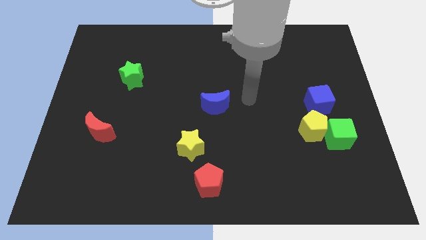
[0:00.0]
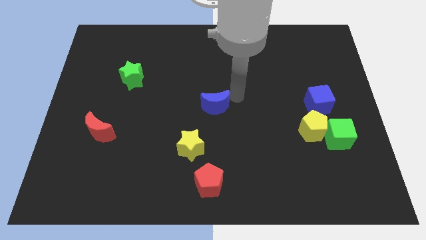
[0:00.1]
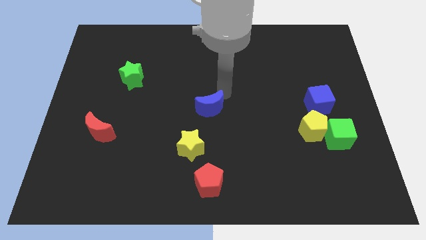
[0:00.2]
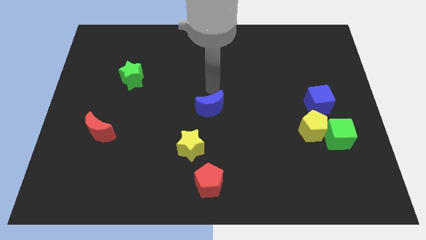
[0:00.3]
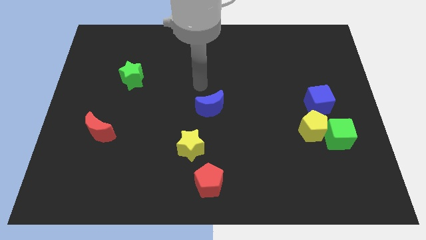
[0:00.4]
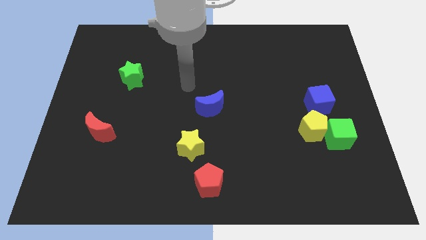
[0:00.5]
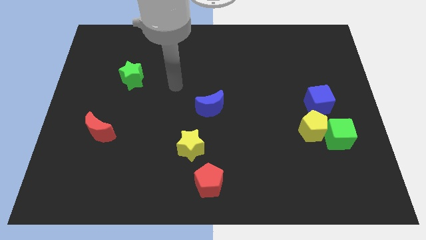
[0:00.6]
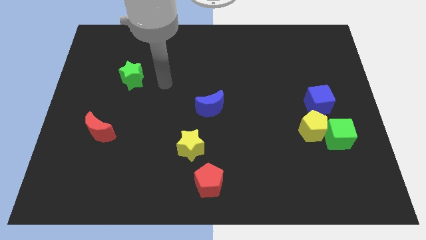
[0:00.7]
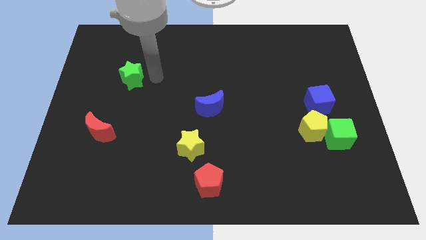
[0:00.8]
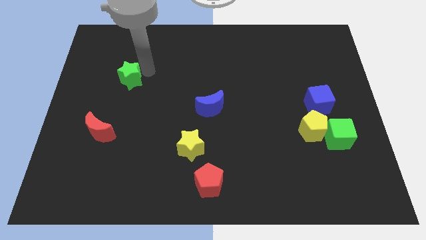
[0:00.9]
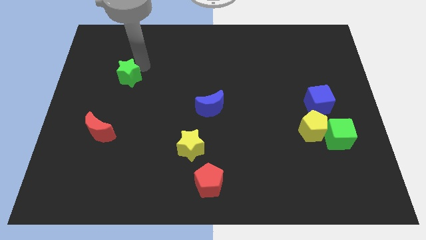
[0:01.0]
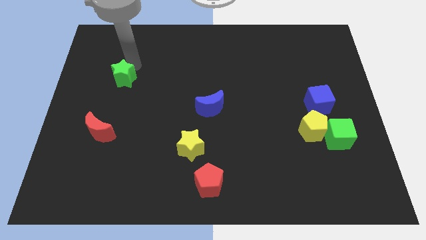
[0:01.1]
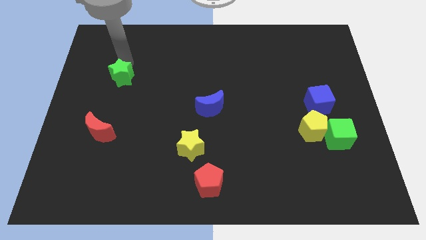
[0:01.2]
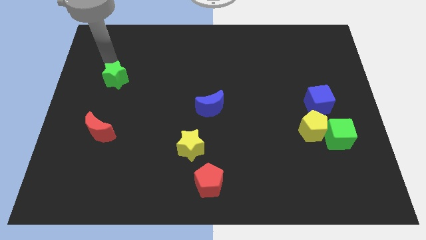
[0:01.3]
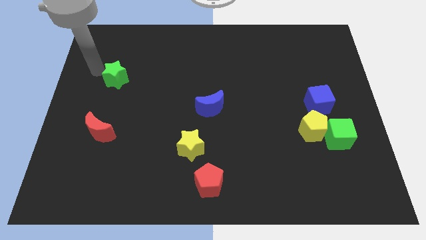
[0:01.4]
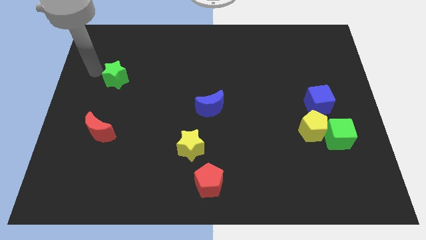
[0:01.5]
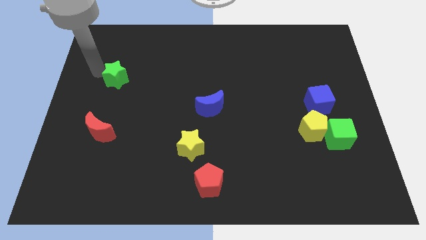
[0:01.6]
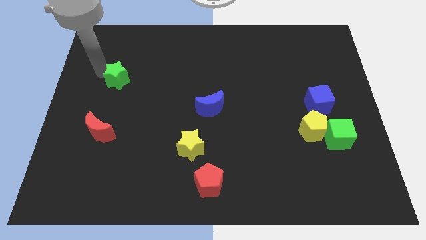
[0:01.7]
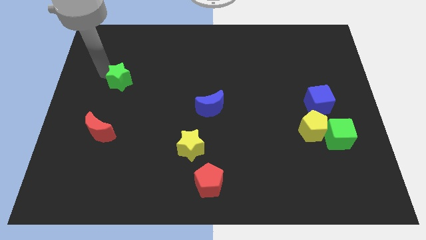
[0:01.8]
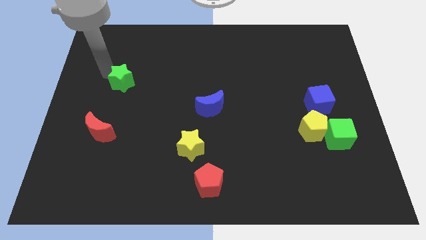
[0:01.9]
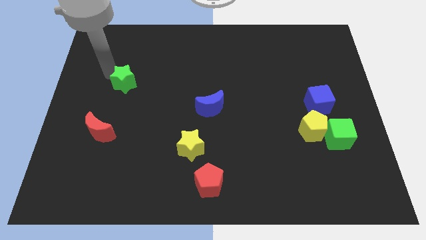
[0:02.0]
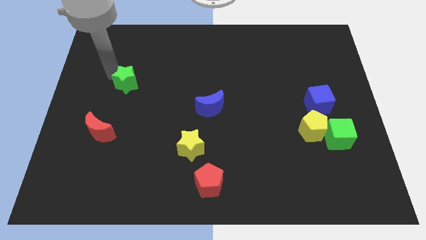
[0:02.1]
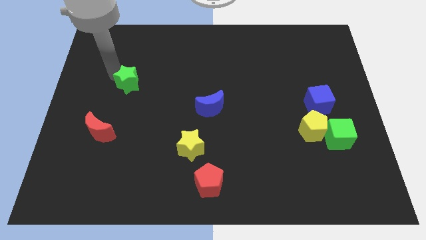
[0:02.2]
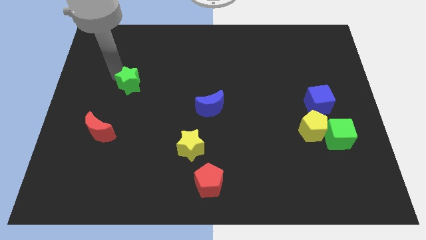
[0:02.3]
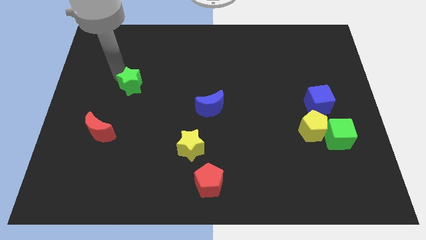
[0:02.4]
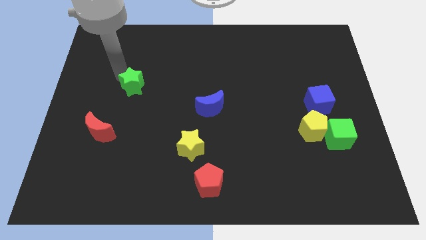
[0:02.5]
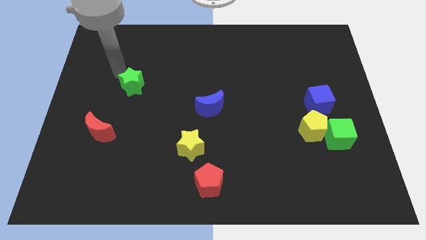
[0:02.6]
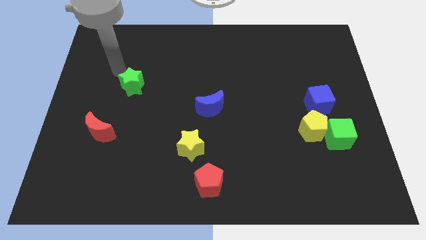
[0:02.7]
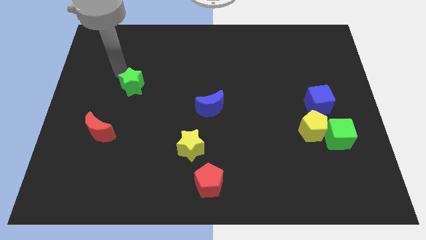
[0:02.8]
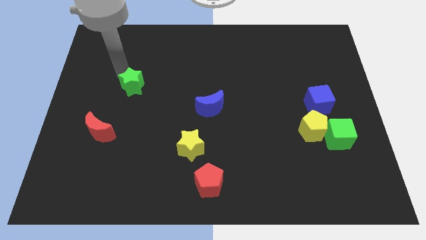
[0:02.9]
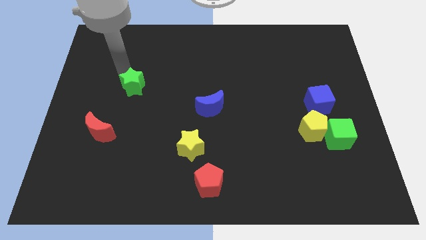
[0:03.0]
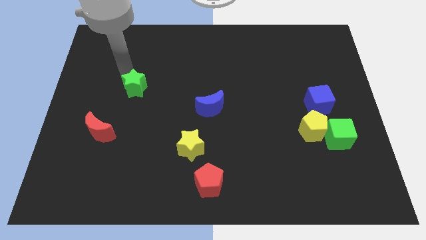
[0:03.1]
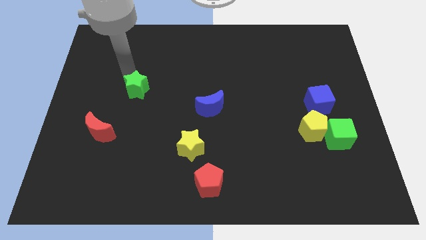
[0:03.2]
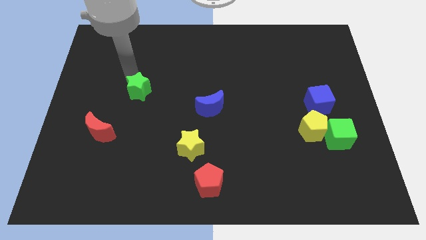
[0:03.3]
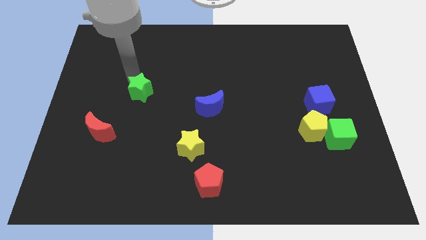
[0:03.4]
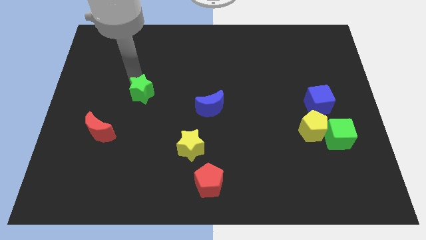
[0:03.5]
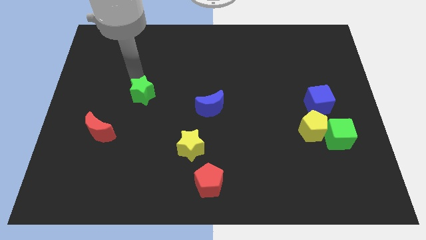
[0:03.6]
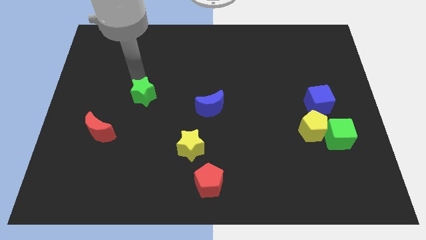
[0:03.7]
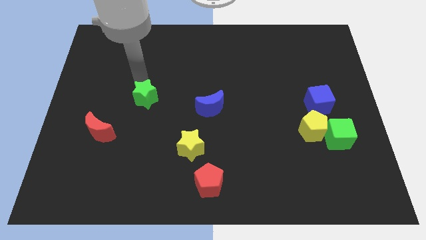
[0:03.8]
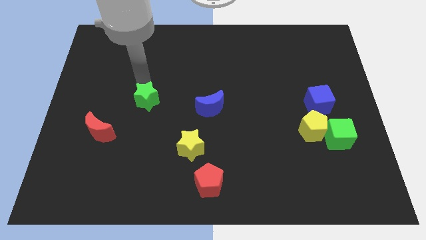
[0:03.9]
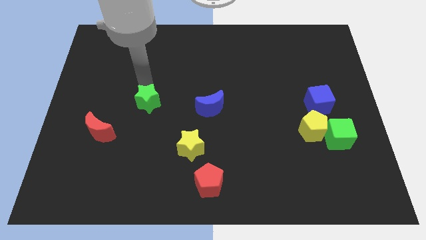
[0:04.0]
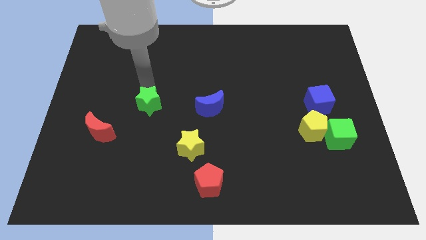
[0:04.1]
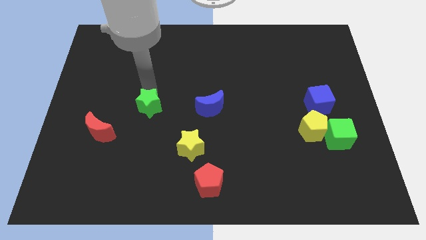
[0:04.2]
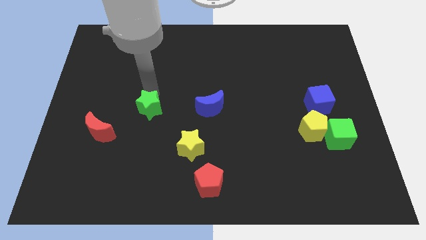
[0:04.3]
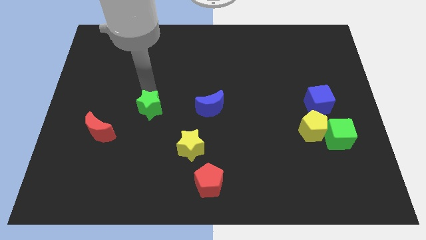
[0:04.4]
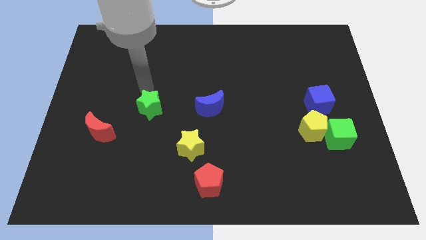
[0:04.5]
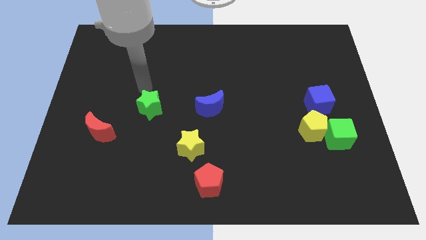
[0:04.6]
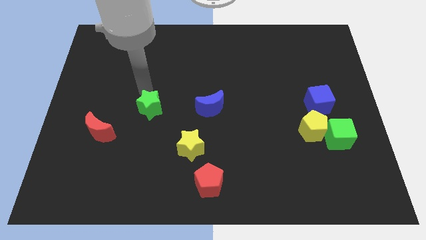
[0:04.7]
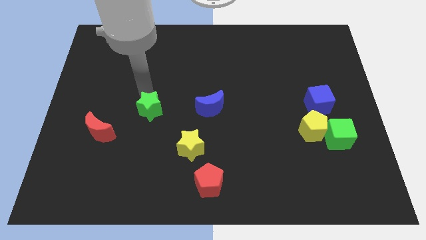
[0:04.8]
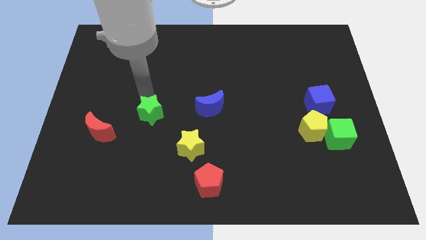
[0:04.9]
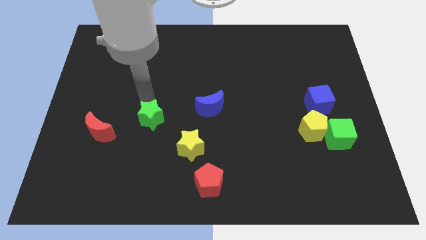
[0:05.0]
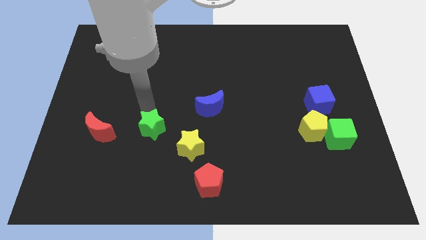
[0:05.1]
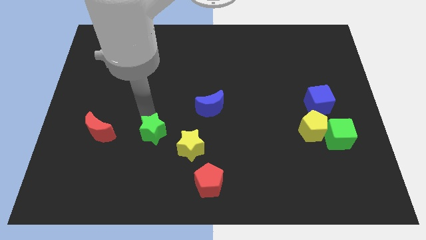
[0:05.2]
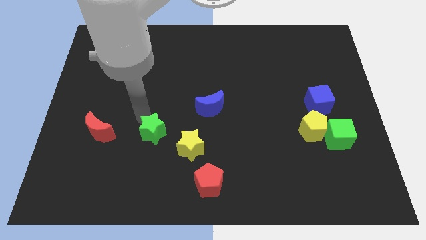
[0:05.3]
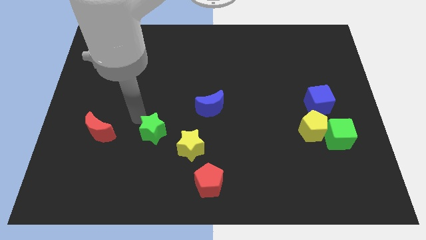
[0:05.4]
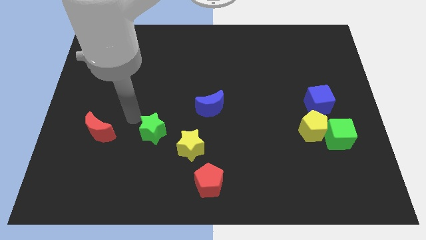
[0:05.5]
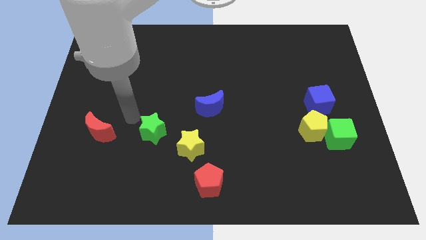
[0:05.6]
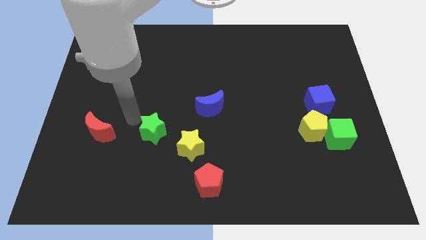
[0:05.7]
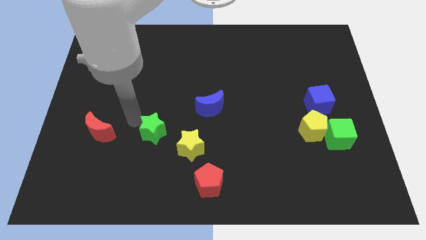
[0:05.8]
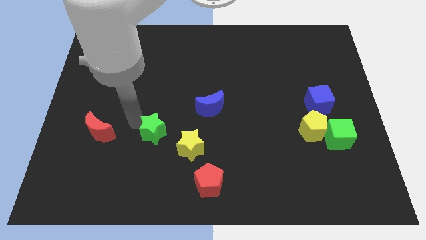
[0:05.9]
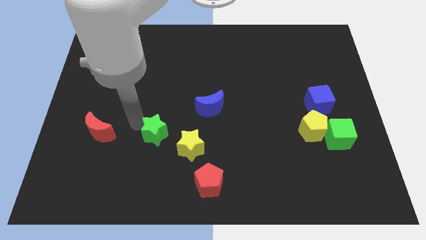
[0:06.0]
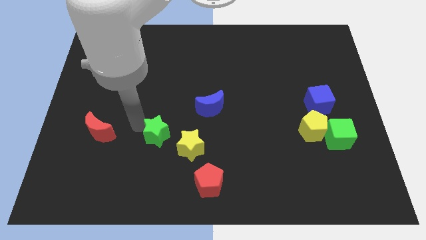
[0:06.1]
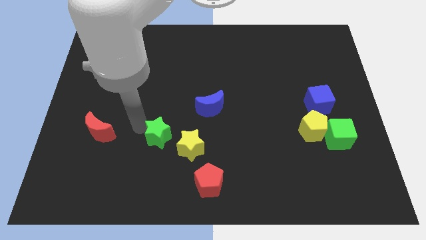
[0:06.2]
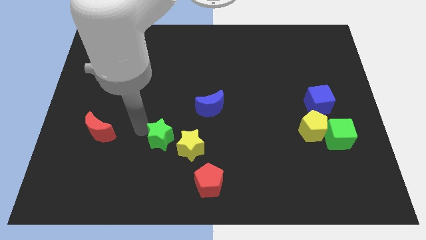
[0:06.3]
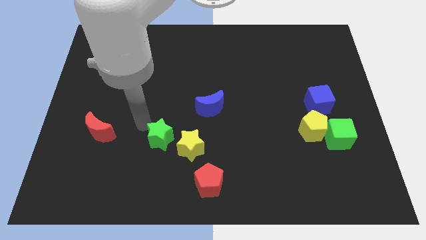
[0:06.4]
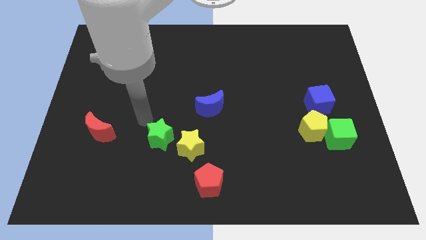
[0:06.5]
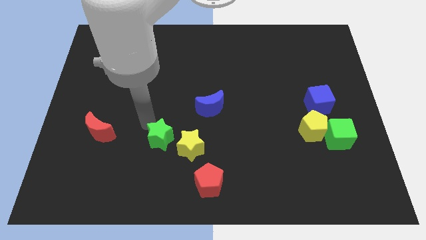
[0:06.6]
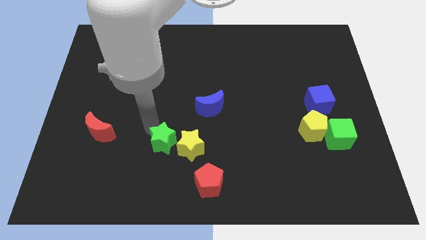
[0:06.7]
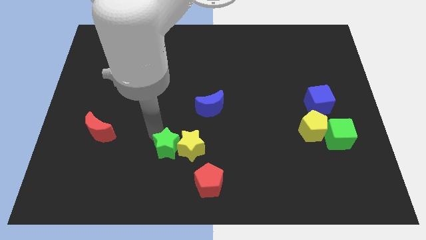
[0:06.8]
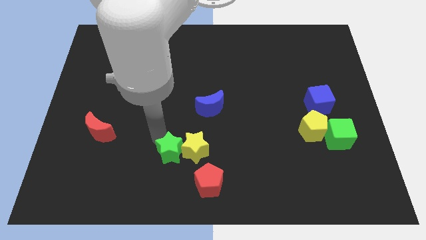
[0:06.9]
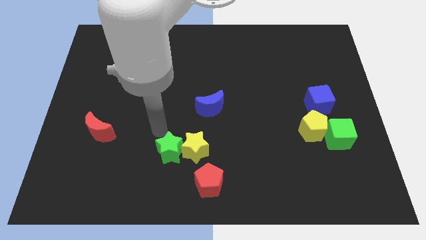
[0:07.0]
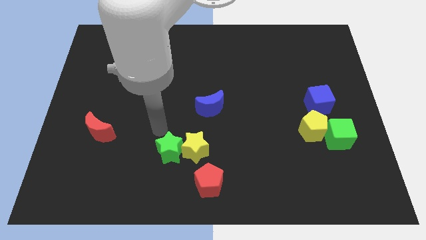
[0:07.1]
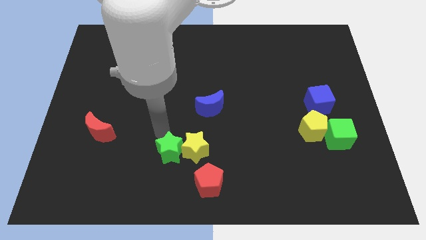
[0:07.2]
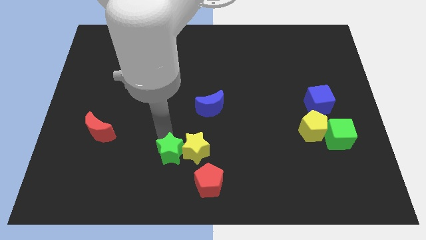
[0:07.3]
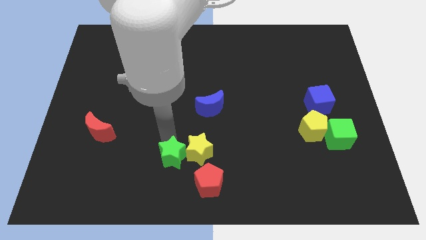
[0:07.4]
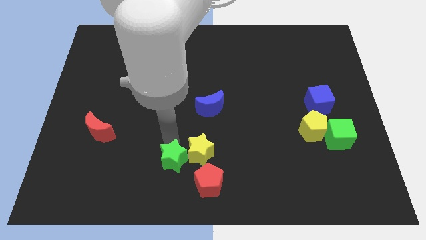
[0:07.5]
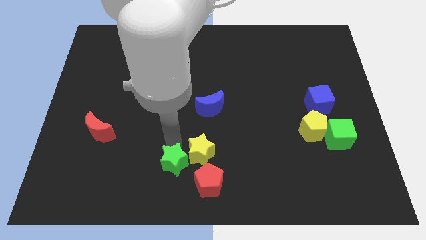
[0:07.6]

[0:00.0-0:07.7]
move the green star to the bottom
